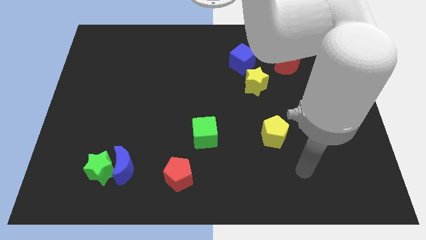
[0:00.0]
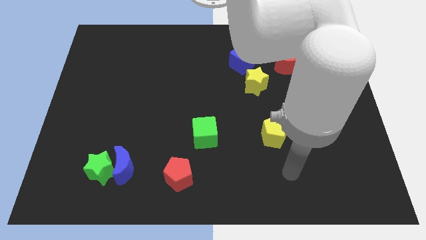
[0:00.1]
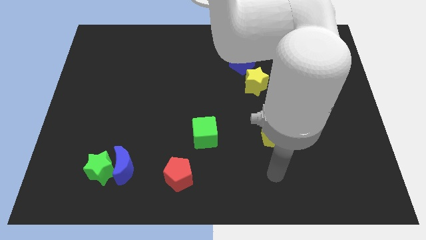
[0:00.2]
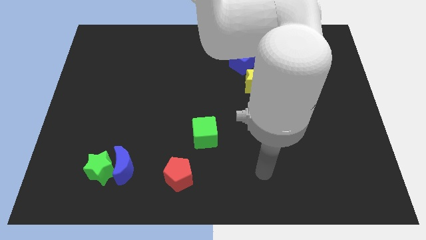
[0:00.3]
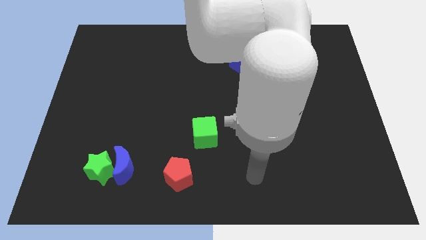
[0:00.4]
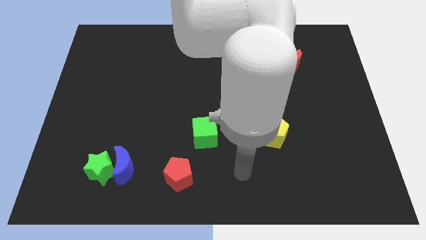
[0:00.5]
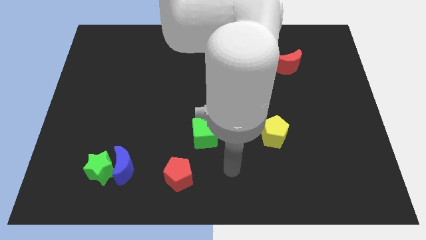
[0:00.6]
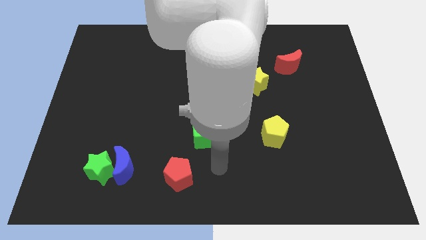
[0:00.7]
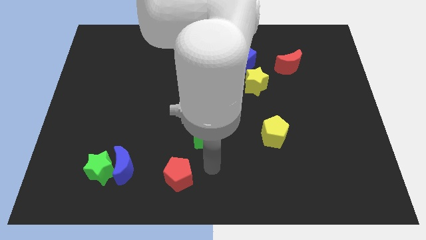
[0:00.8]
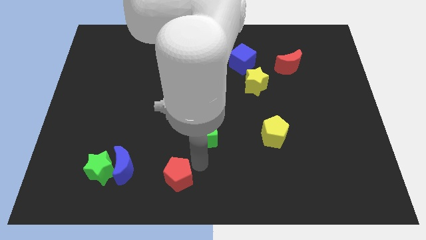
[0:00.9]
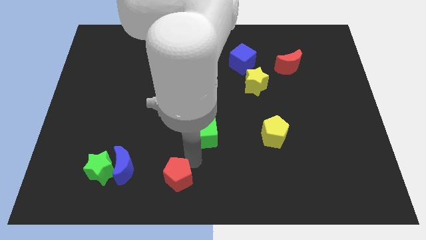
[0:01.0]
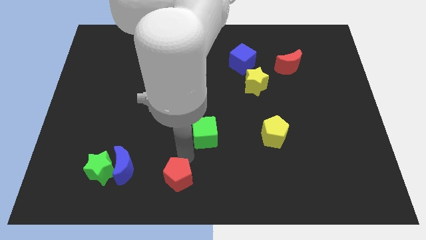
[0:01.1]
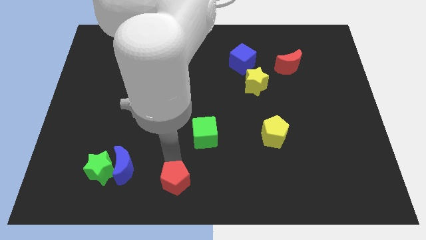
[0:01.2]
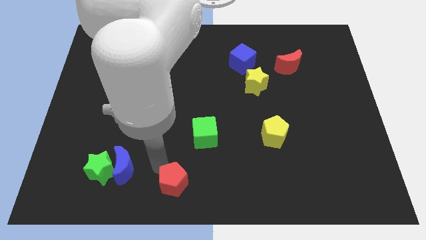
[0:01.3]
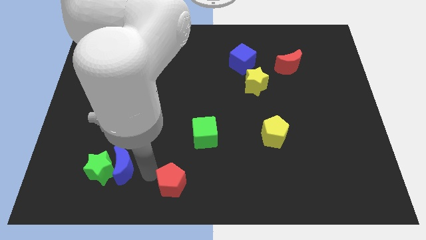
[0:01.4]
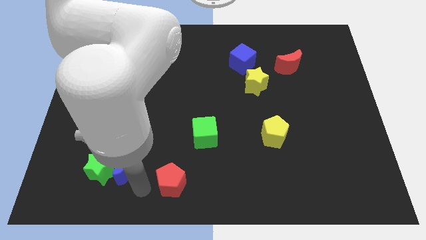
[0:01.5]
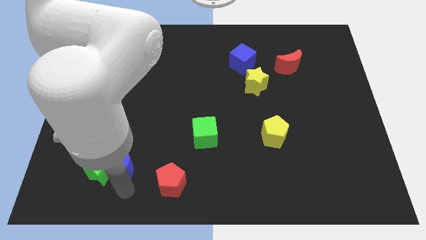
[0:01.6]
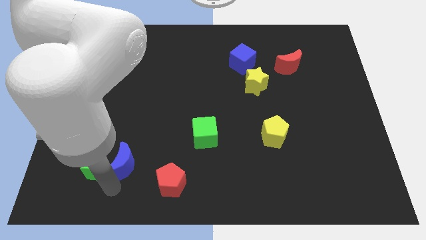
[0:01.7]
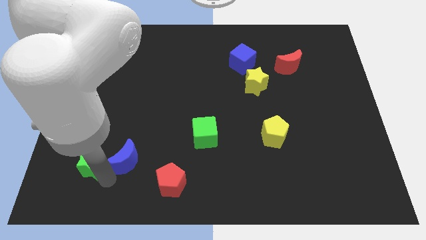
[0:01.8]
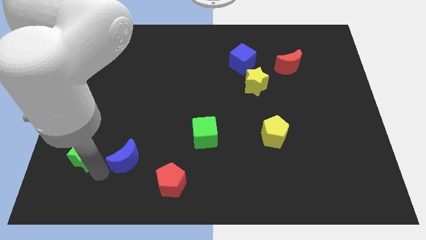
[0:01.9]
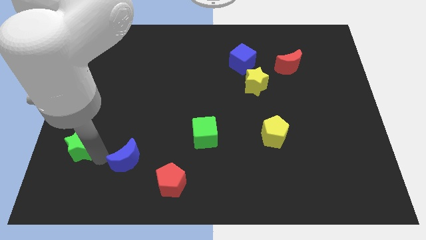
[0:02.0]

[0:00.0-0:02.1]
move the blue moon away from the green star

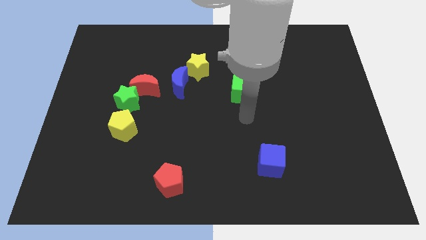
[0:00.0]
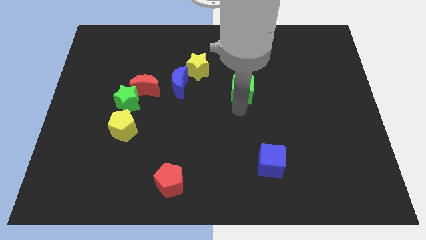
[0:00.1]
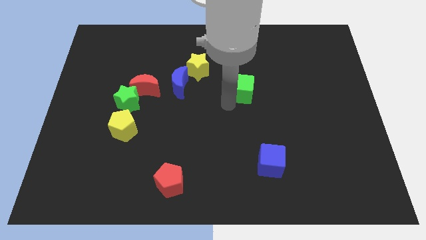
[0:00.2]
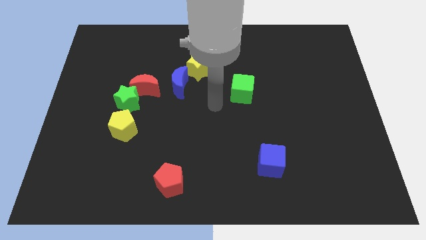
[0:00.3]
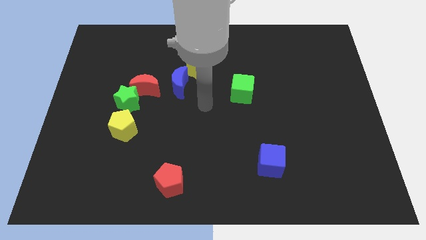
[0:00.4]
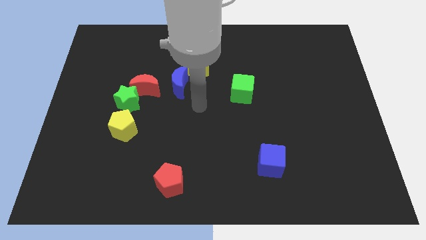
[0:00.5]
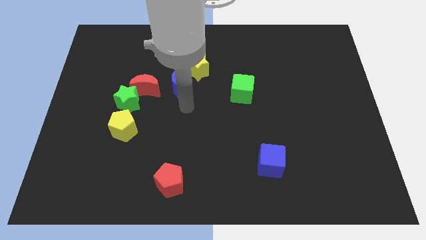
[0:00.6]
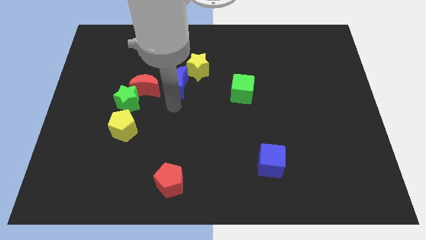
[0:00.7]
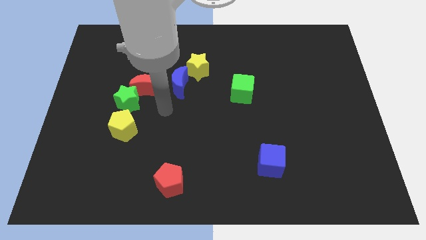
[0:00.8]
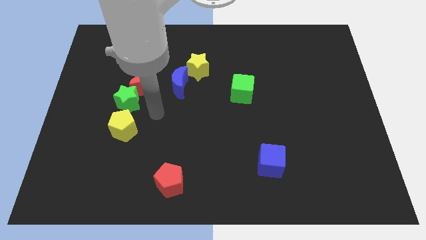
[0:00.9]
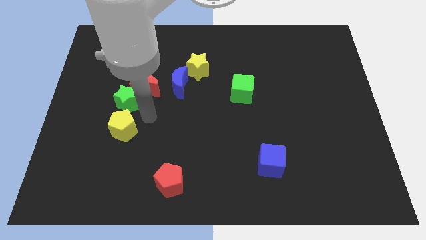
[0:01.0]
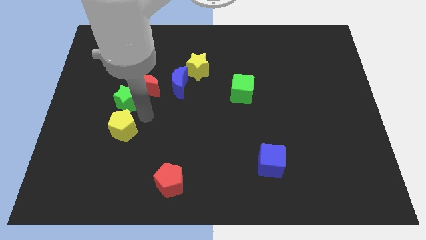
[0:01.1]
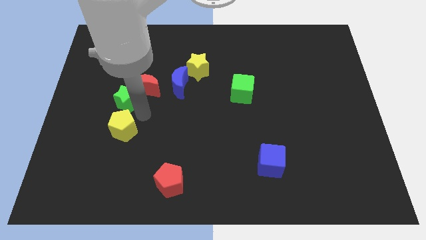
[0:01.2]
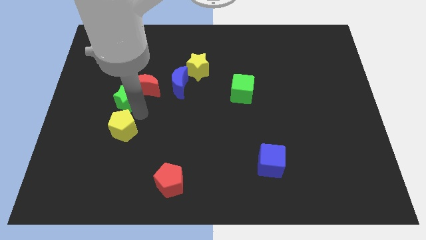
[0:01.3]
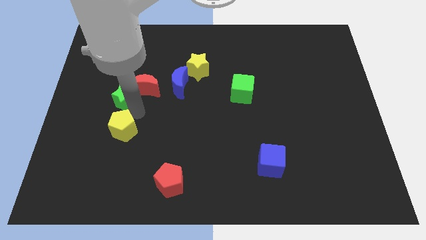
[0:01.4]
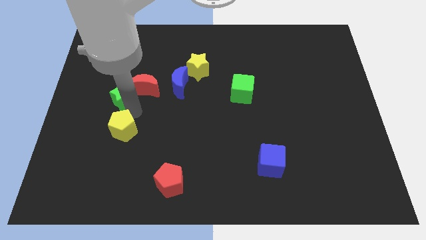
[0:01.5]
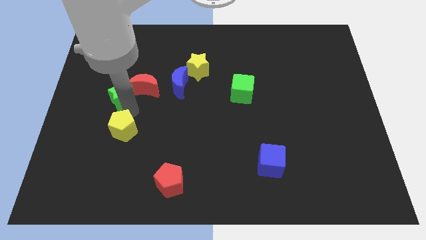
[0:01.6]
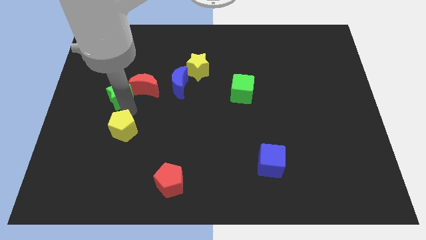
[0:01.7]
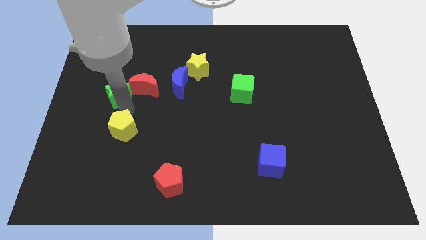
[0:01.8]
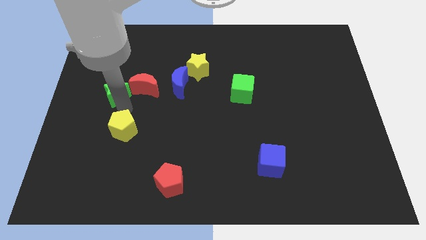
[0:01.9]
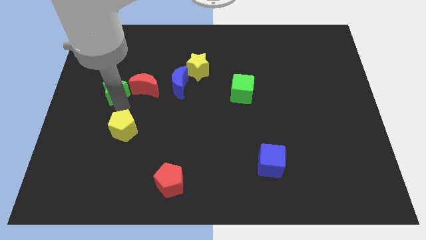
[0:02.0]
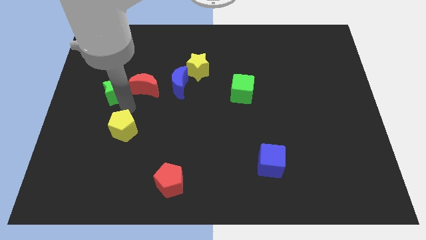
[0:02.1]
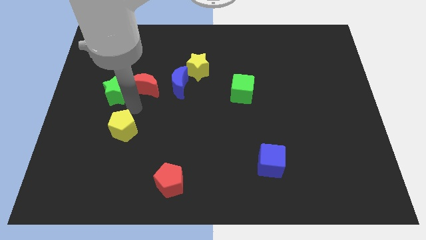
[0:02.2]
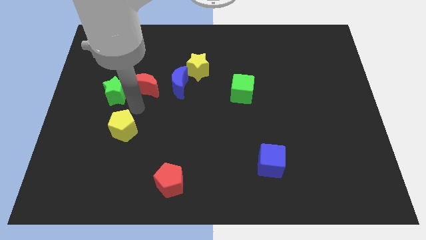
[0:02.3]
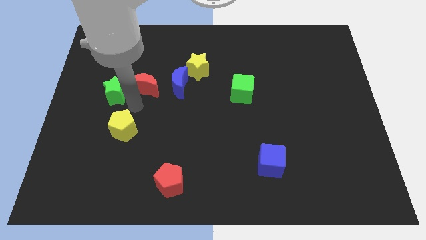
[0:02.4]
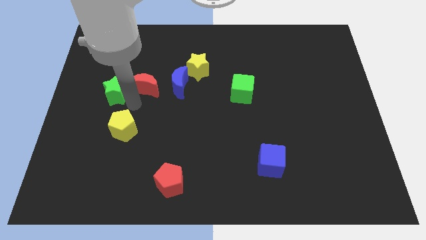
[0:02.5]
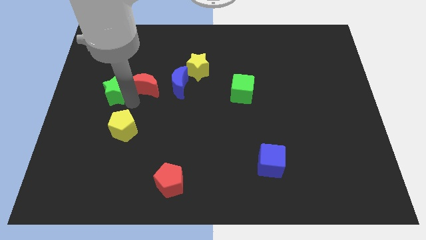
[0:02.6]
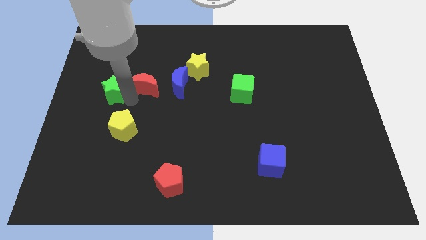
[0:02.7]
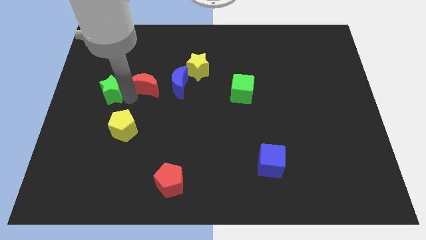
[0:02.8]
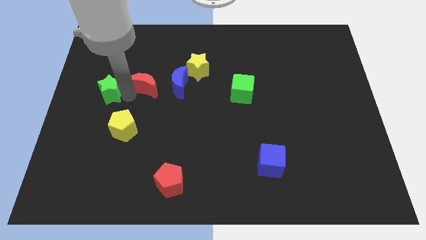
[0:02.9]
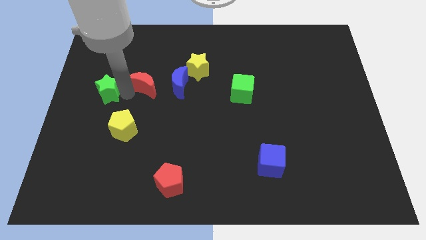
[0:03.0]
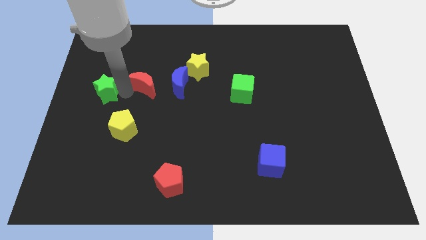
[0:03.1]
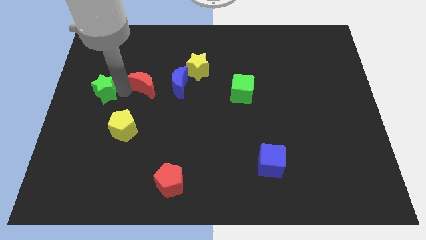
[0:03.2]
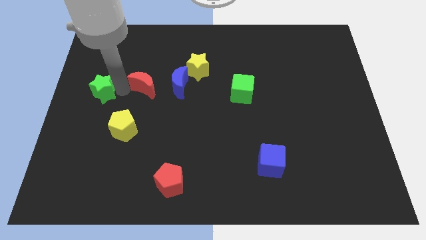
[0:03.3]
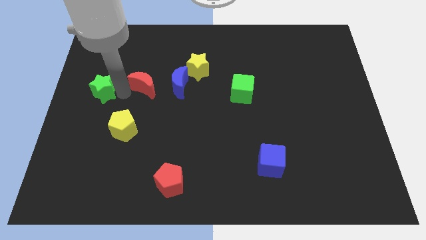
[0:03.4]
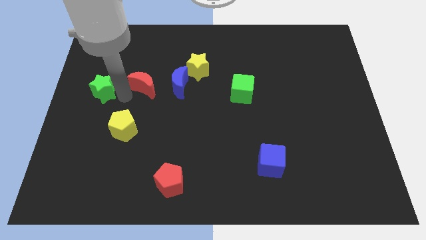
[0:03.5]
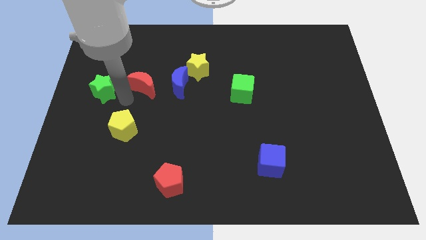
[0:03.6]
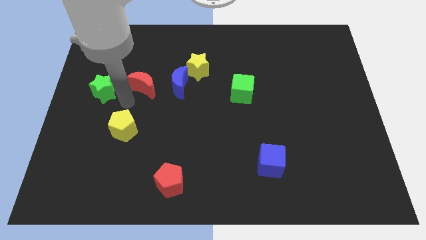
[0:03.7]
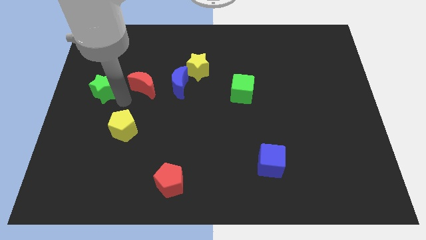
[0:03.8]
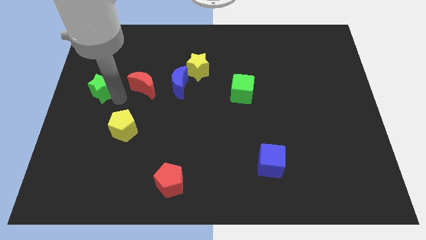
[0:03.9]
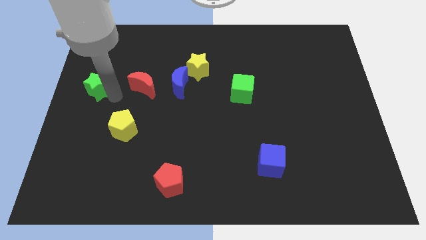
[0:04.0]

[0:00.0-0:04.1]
move the green star away from the red moon and yellow pentagon

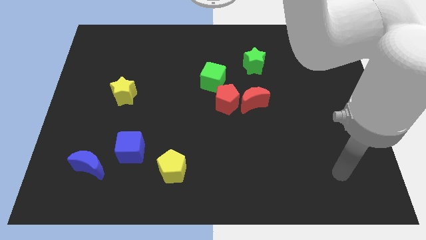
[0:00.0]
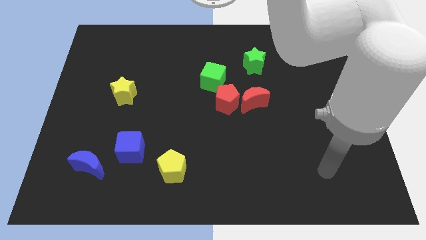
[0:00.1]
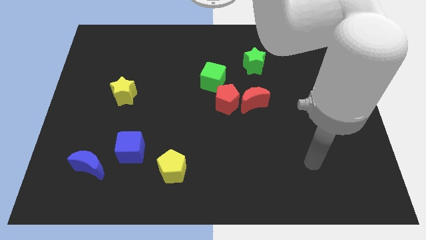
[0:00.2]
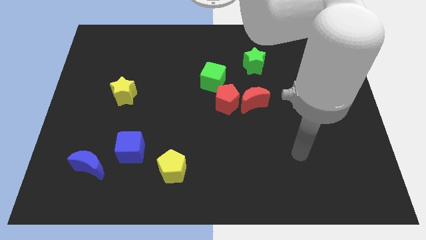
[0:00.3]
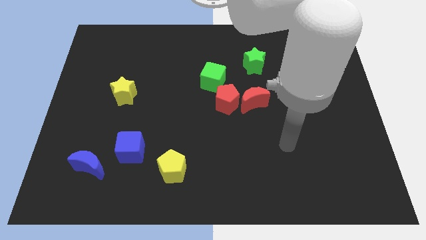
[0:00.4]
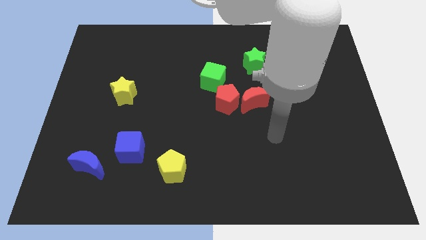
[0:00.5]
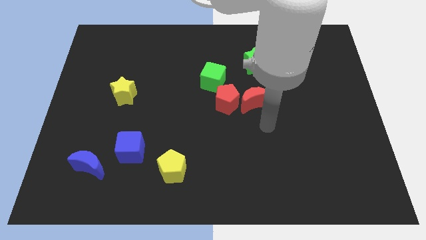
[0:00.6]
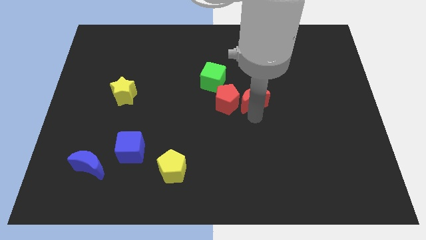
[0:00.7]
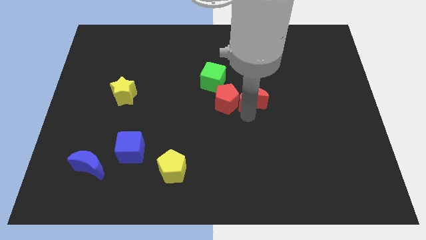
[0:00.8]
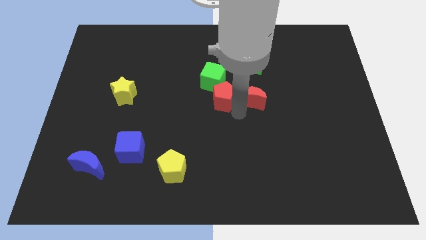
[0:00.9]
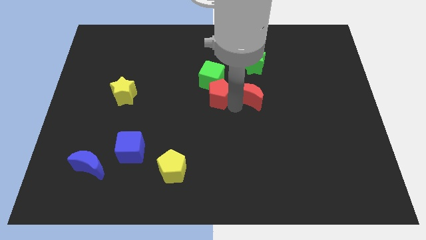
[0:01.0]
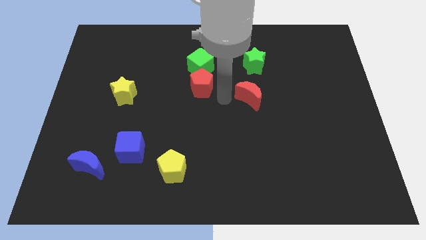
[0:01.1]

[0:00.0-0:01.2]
separate the red moon from the red pentagon

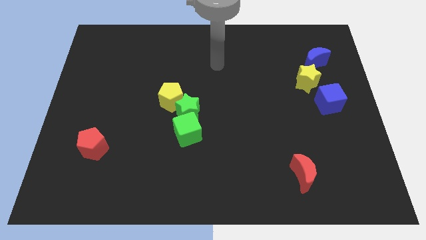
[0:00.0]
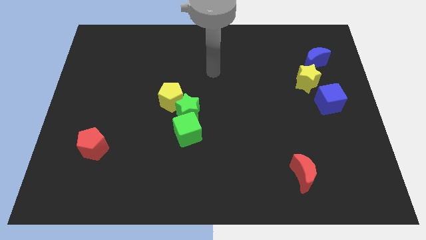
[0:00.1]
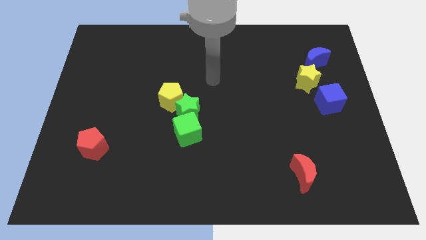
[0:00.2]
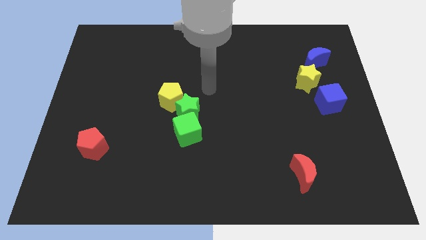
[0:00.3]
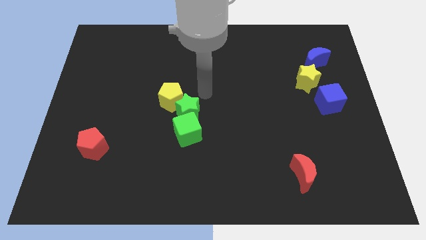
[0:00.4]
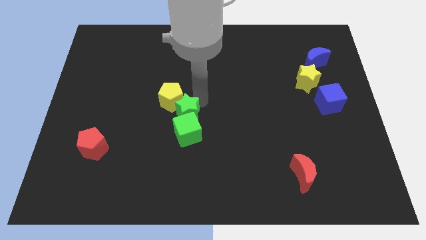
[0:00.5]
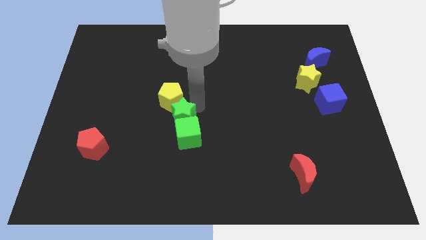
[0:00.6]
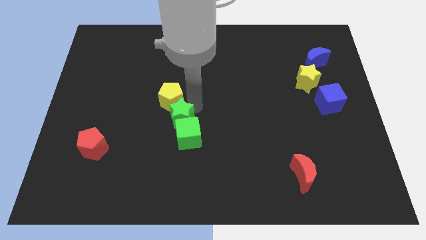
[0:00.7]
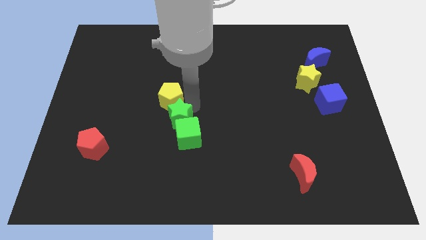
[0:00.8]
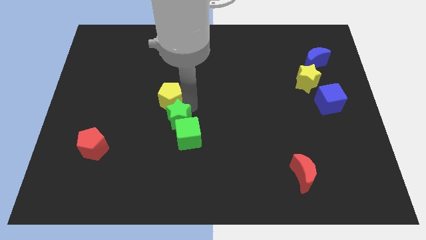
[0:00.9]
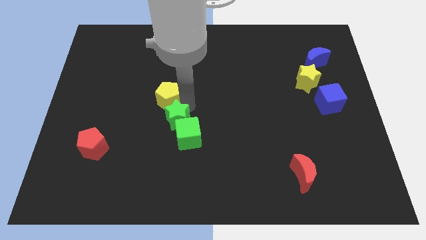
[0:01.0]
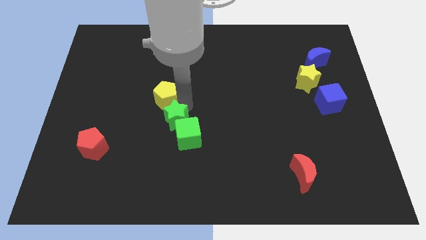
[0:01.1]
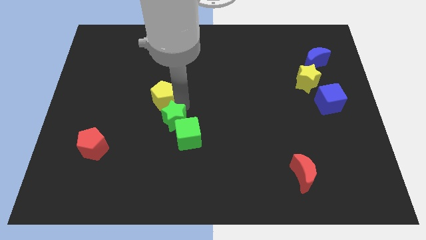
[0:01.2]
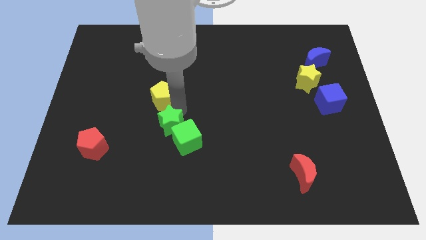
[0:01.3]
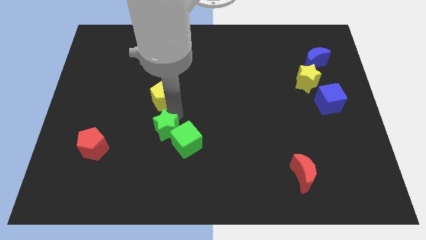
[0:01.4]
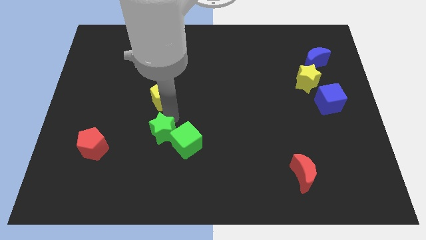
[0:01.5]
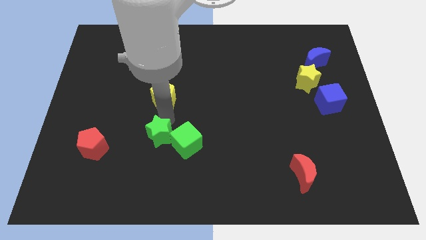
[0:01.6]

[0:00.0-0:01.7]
move the yellow pentagon away from the green star

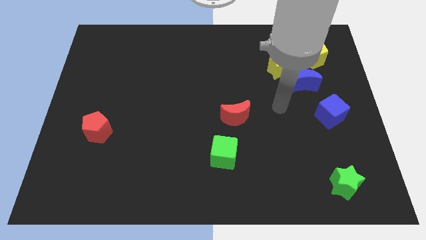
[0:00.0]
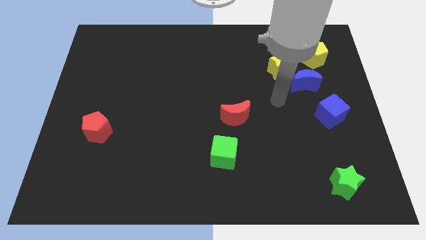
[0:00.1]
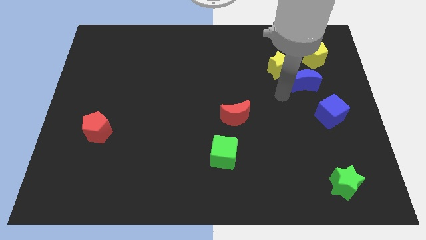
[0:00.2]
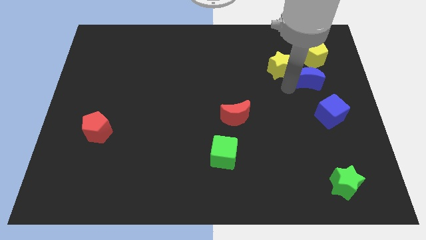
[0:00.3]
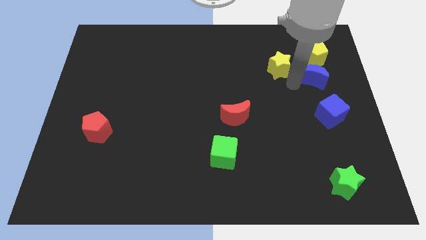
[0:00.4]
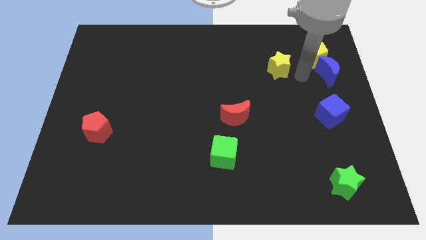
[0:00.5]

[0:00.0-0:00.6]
separate the yellow star from the blue moon
